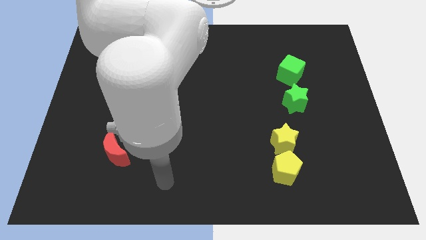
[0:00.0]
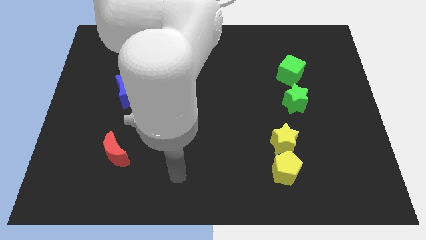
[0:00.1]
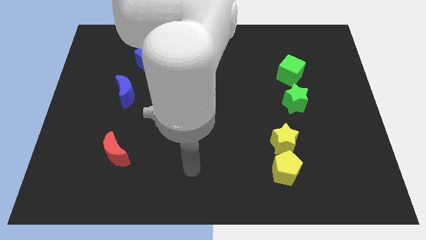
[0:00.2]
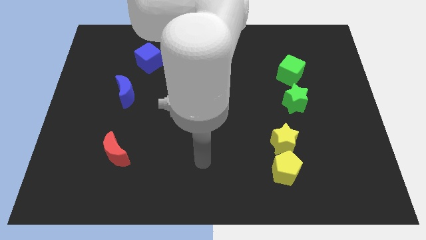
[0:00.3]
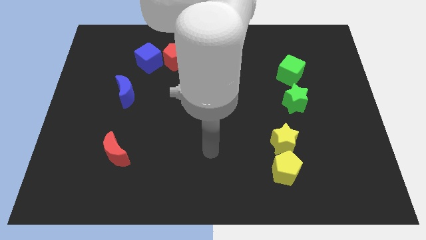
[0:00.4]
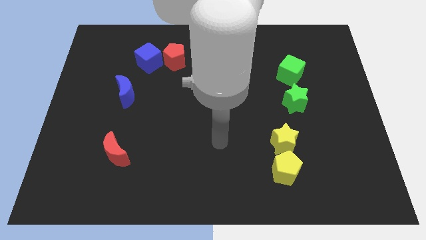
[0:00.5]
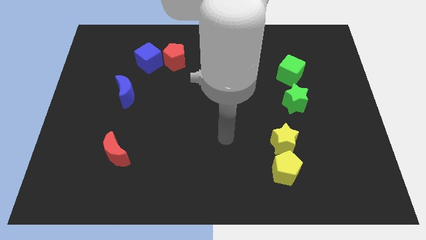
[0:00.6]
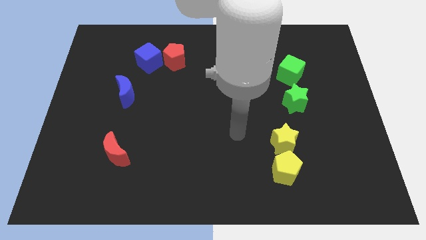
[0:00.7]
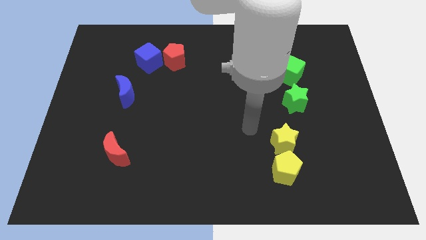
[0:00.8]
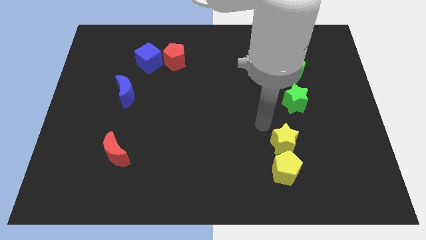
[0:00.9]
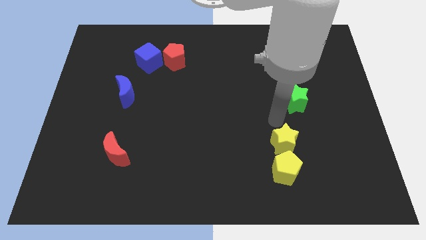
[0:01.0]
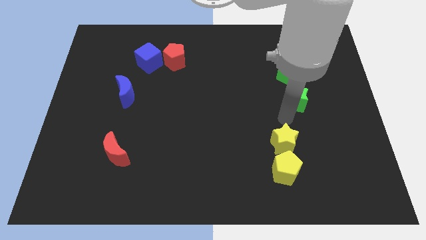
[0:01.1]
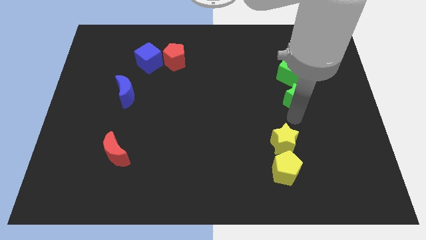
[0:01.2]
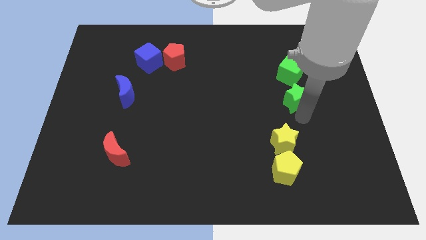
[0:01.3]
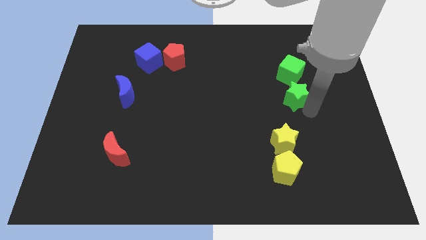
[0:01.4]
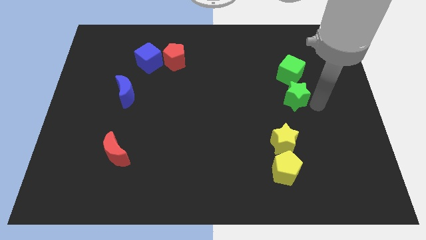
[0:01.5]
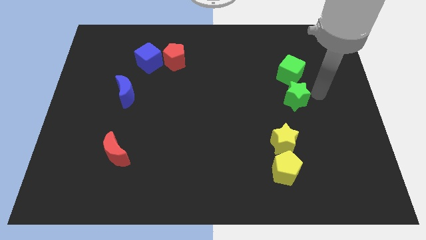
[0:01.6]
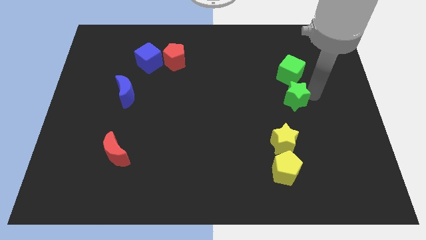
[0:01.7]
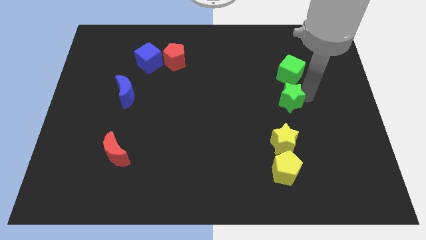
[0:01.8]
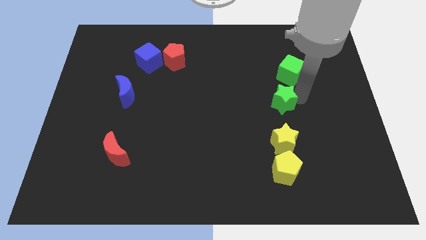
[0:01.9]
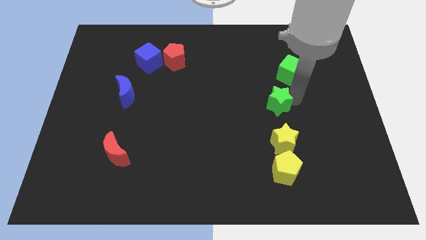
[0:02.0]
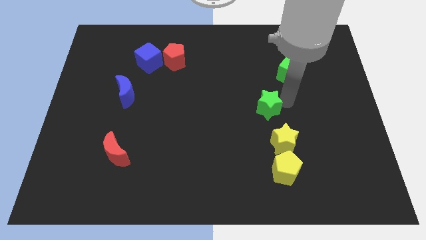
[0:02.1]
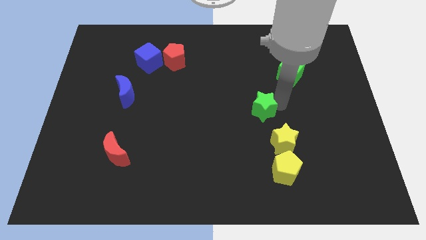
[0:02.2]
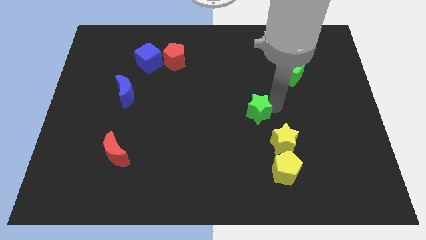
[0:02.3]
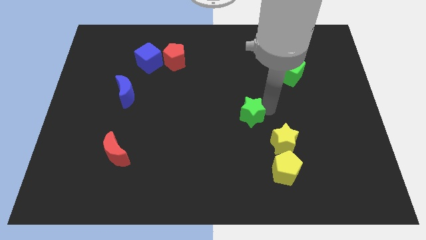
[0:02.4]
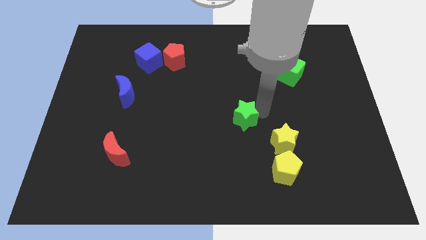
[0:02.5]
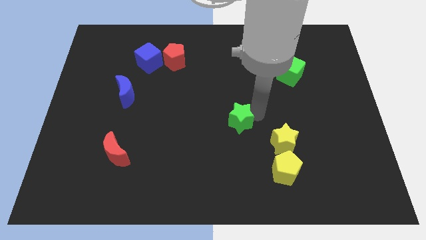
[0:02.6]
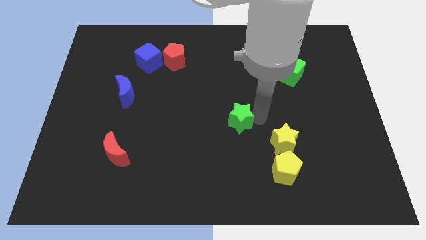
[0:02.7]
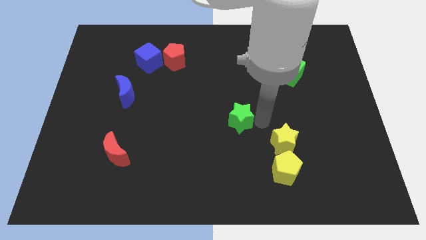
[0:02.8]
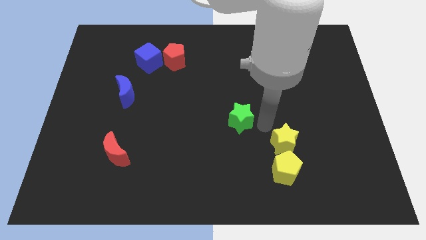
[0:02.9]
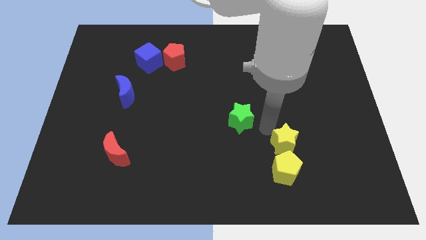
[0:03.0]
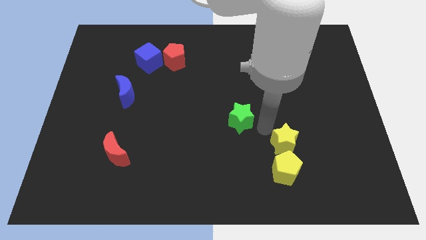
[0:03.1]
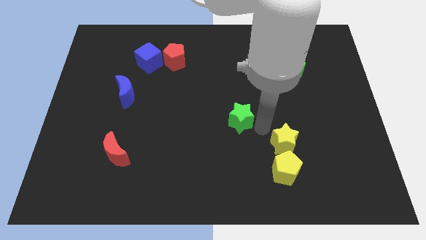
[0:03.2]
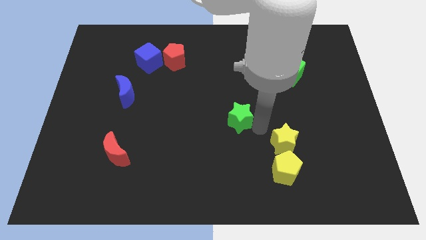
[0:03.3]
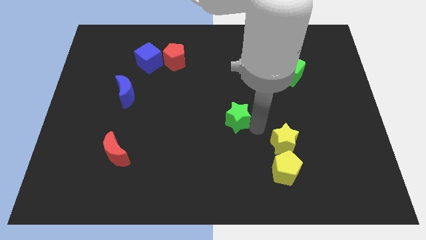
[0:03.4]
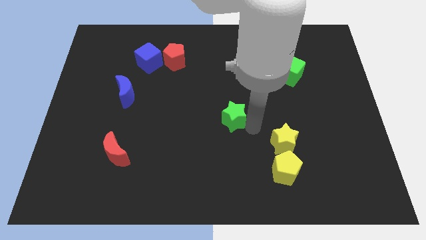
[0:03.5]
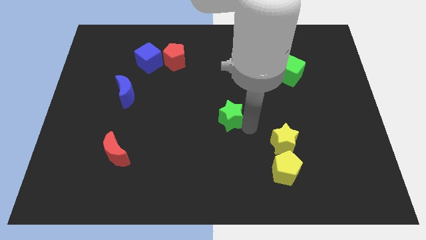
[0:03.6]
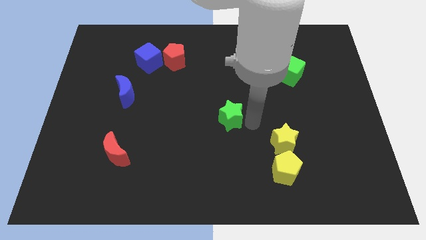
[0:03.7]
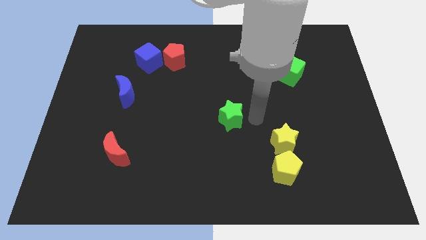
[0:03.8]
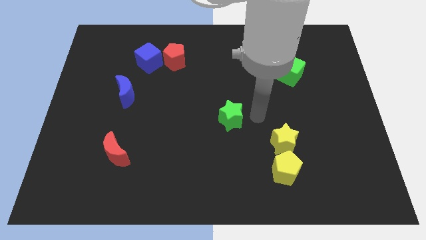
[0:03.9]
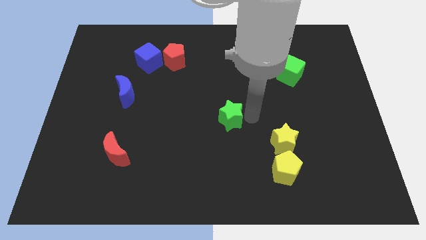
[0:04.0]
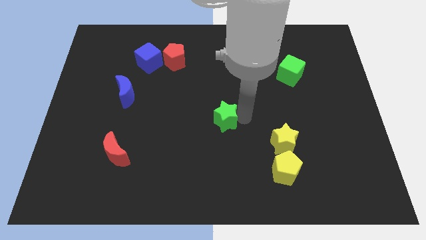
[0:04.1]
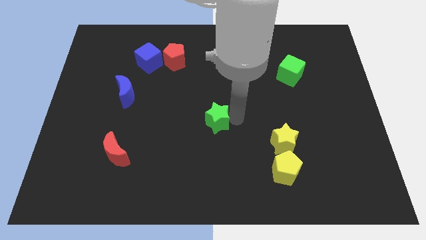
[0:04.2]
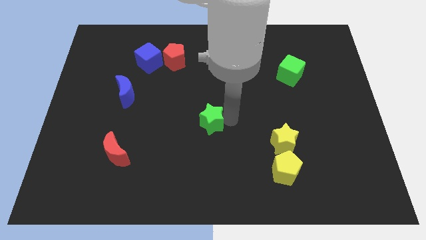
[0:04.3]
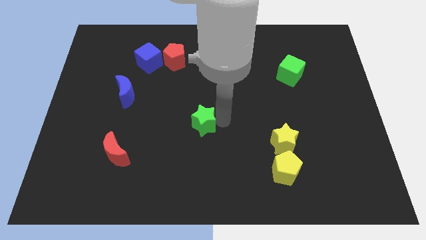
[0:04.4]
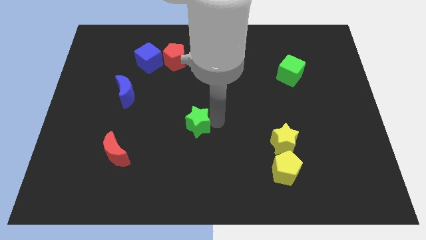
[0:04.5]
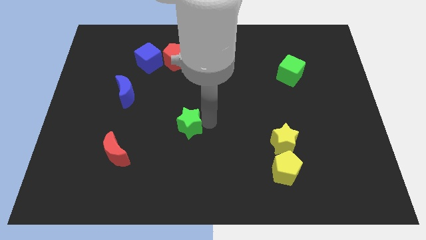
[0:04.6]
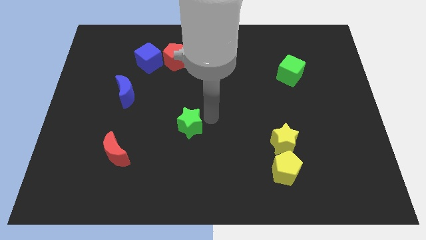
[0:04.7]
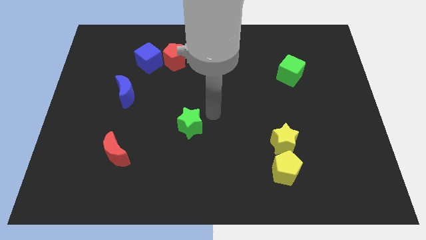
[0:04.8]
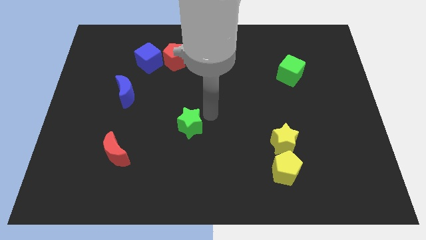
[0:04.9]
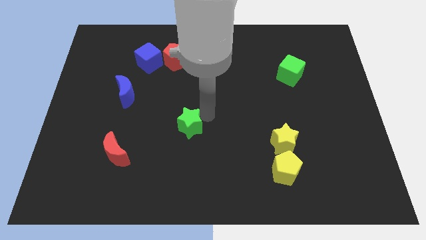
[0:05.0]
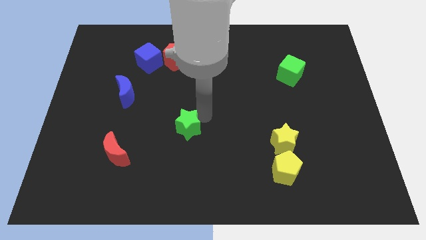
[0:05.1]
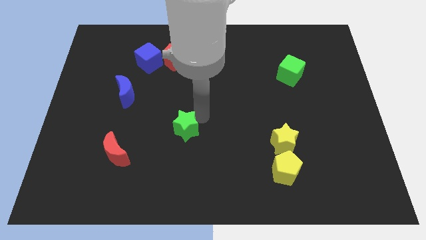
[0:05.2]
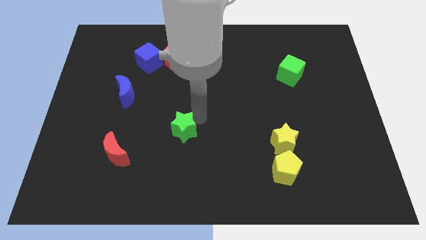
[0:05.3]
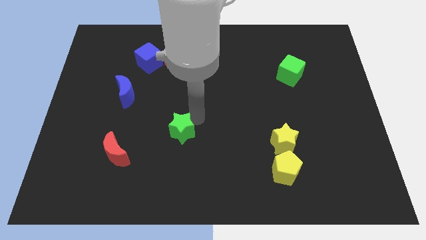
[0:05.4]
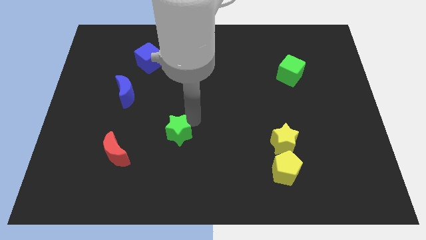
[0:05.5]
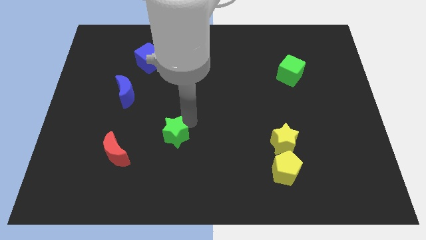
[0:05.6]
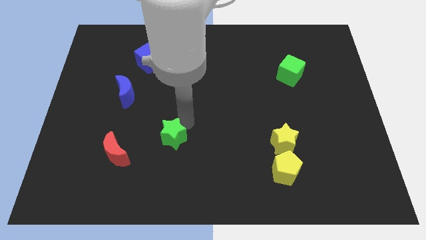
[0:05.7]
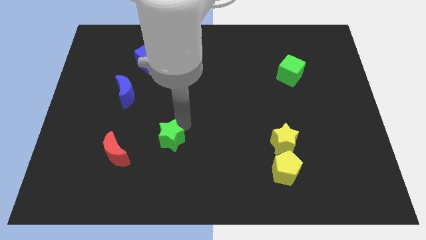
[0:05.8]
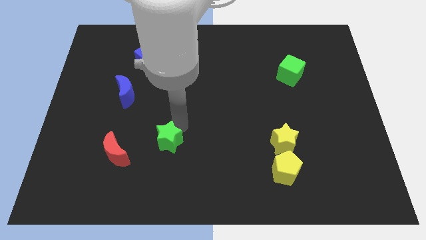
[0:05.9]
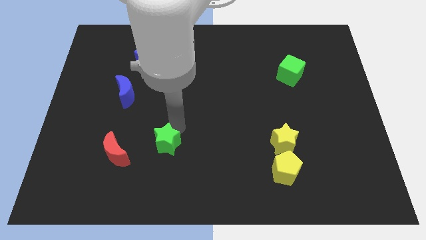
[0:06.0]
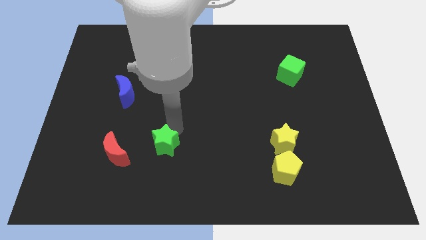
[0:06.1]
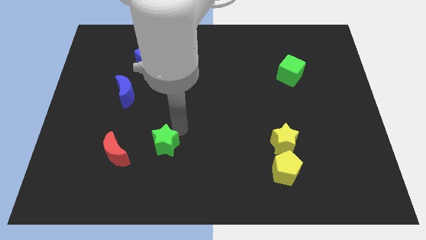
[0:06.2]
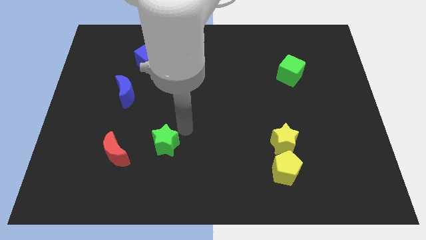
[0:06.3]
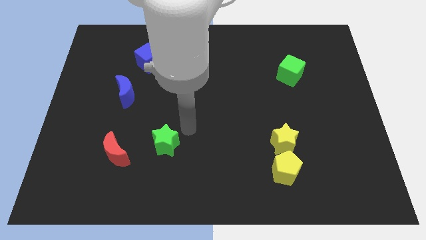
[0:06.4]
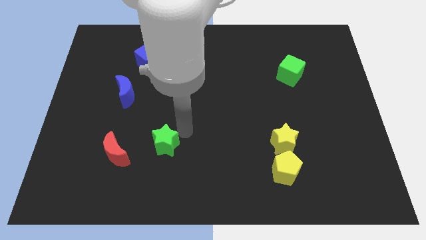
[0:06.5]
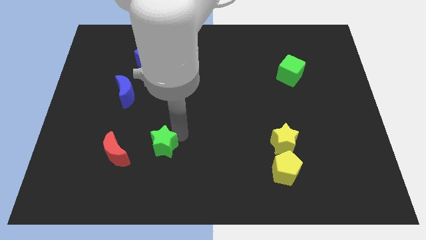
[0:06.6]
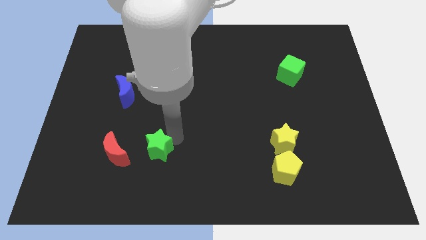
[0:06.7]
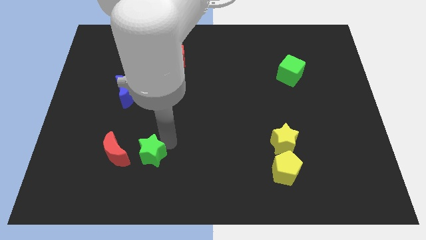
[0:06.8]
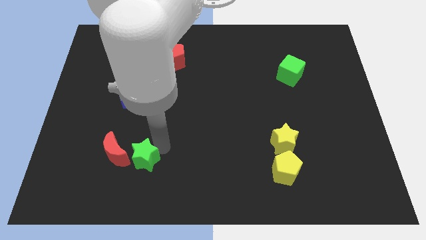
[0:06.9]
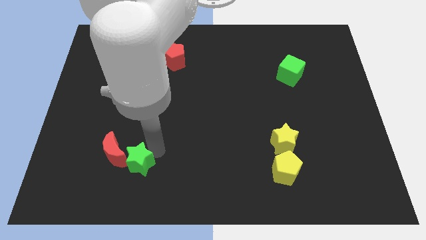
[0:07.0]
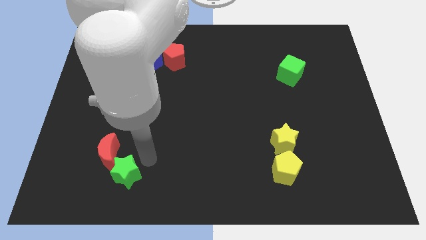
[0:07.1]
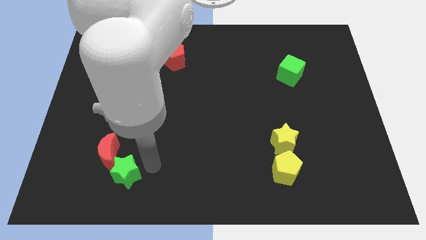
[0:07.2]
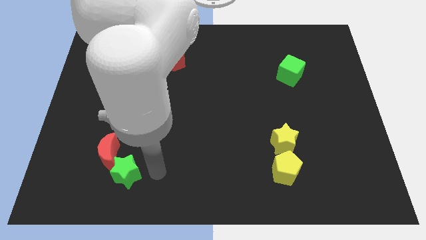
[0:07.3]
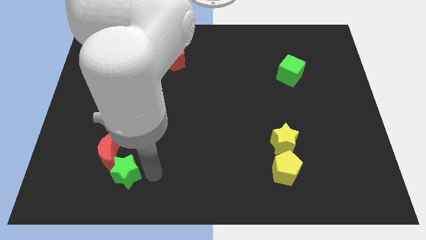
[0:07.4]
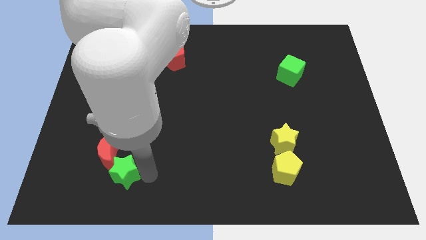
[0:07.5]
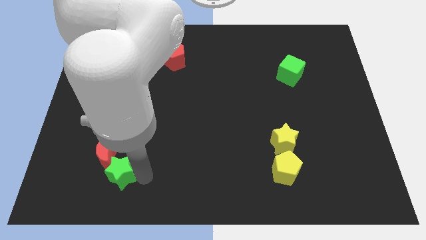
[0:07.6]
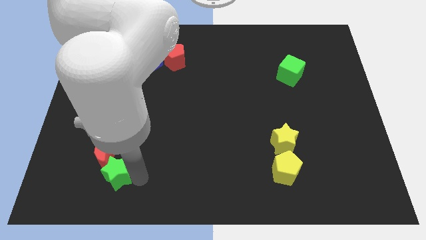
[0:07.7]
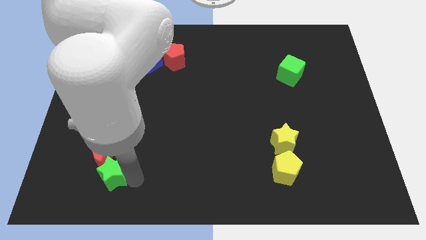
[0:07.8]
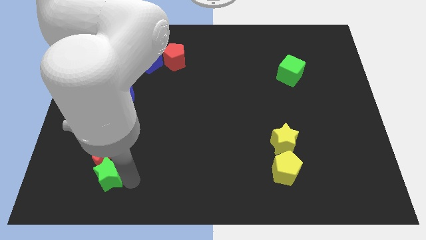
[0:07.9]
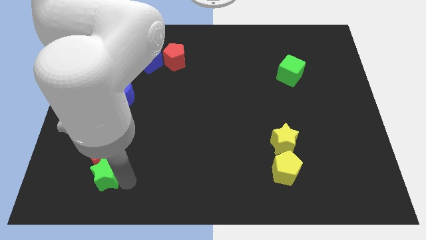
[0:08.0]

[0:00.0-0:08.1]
slide the green star diagonally down and to the left of the red moon
